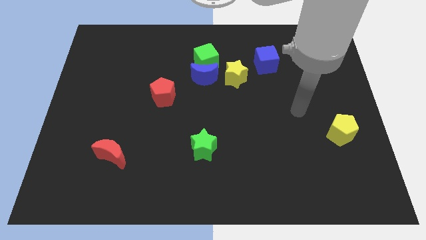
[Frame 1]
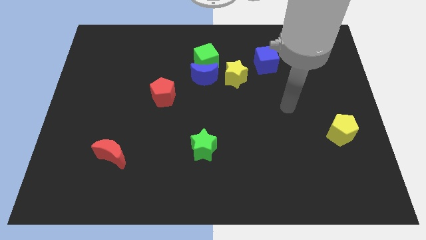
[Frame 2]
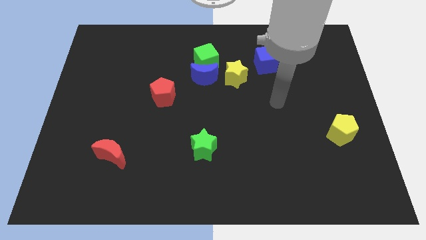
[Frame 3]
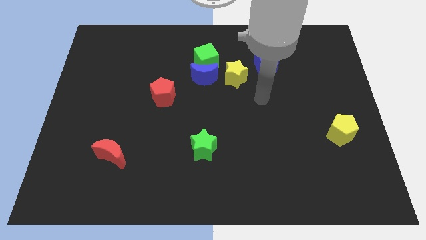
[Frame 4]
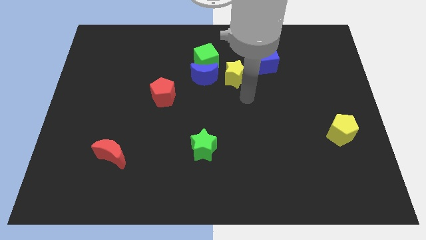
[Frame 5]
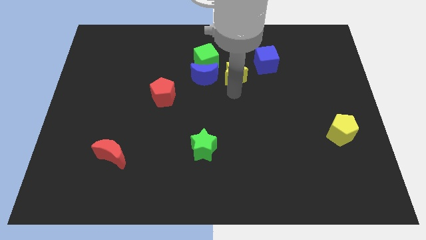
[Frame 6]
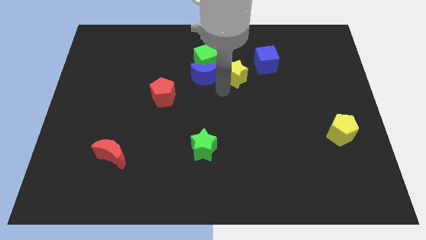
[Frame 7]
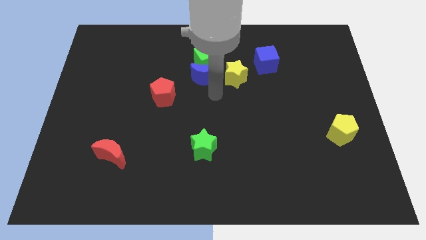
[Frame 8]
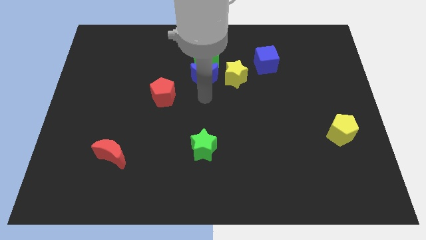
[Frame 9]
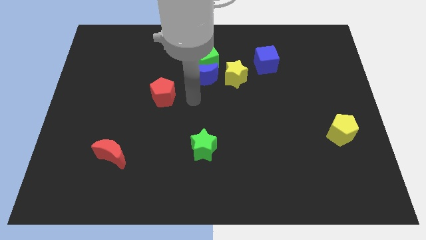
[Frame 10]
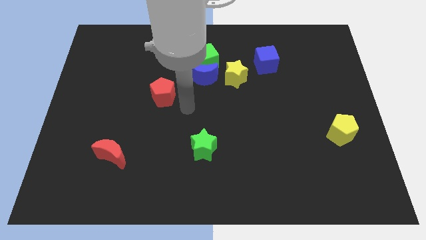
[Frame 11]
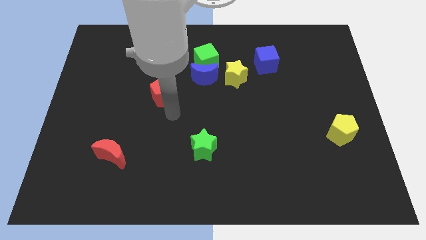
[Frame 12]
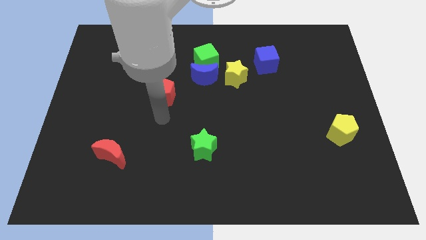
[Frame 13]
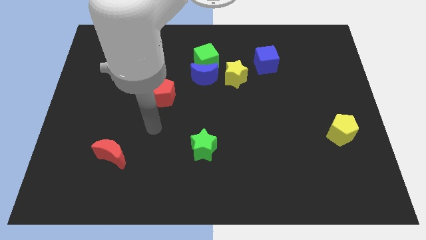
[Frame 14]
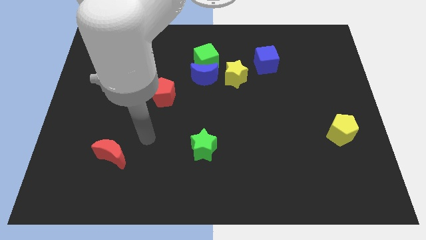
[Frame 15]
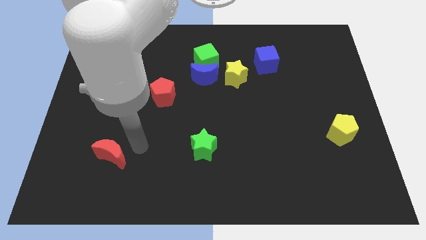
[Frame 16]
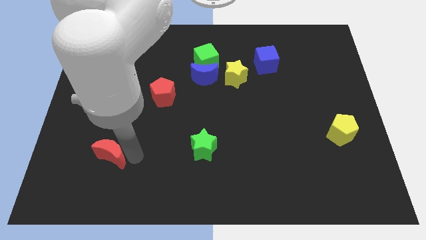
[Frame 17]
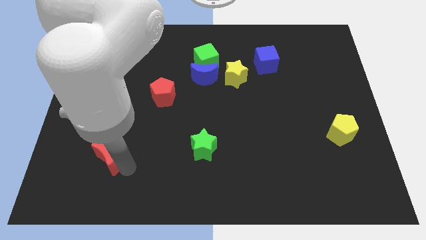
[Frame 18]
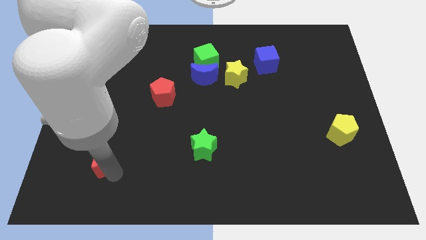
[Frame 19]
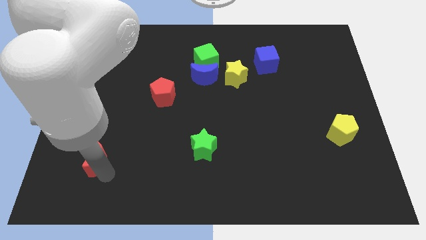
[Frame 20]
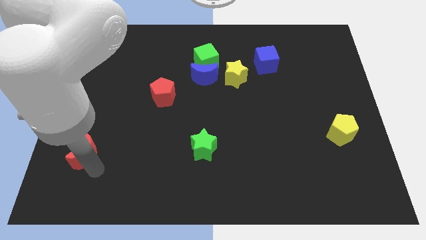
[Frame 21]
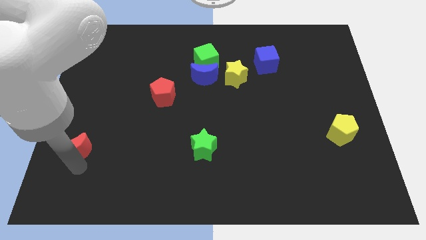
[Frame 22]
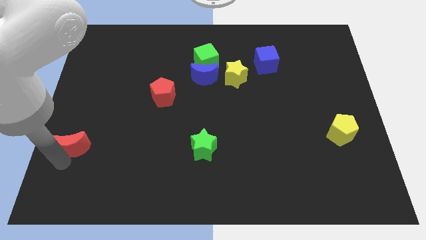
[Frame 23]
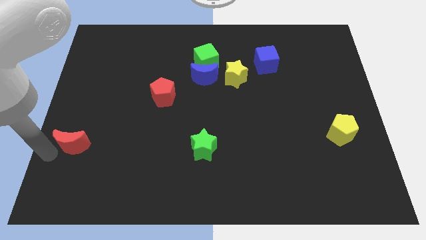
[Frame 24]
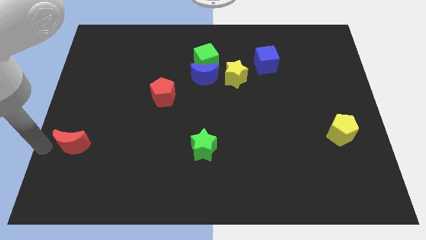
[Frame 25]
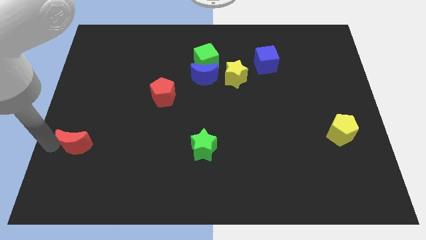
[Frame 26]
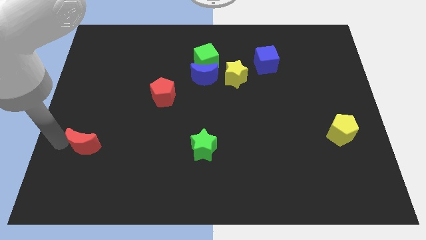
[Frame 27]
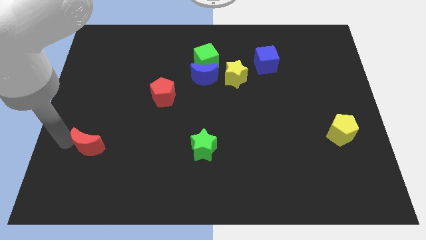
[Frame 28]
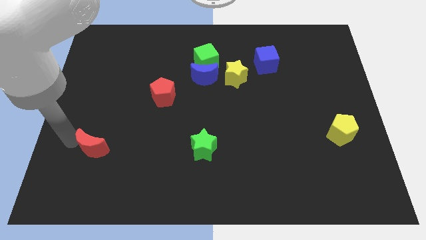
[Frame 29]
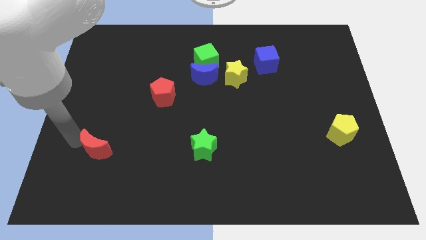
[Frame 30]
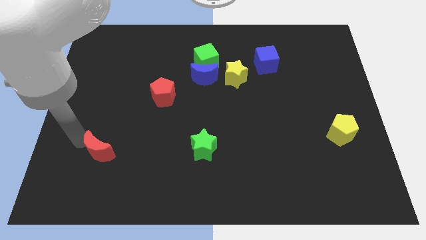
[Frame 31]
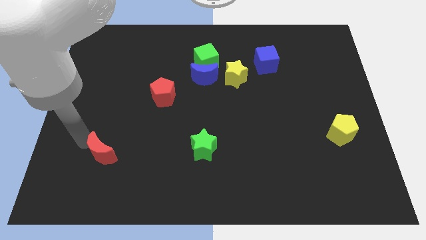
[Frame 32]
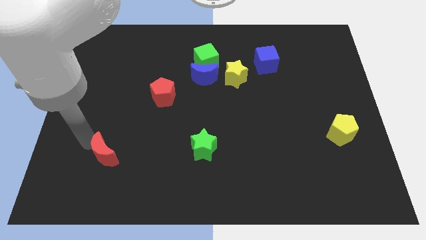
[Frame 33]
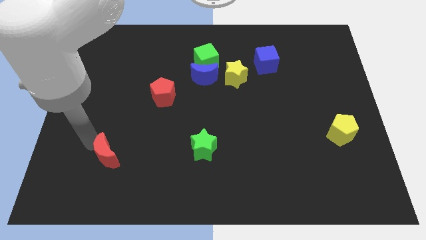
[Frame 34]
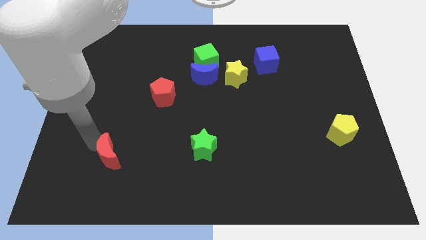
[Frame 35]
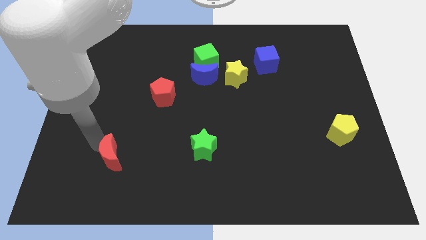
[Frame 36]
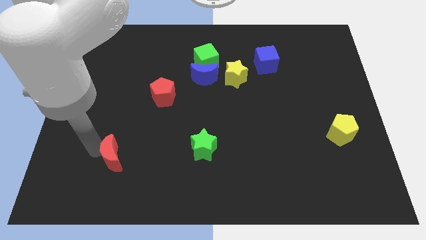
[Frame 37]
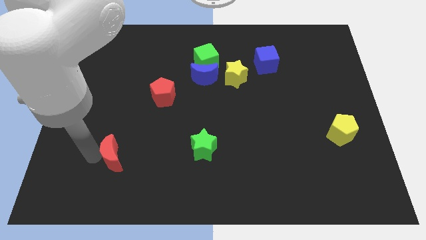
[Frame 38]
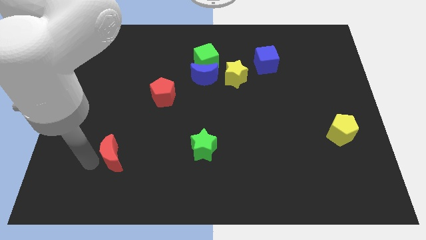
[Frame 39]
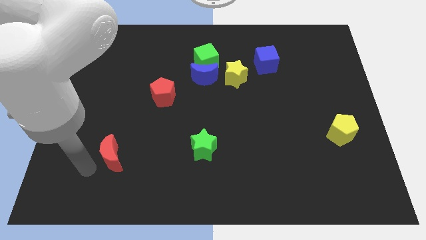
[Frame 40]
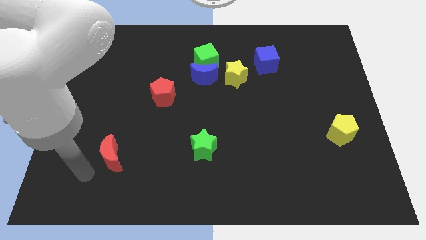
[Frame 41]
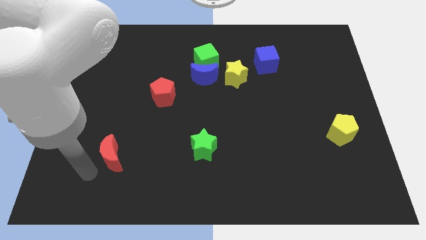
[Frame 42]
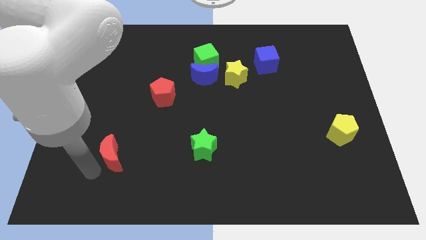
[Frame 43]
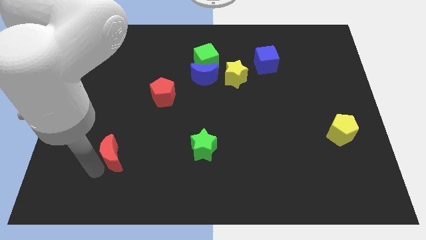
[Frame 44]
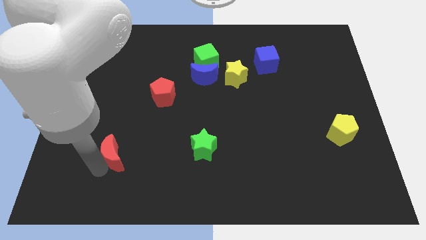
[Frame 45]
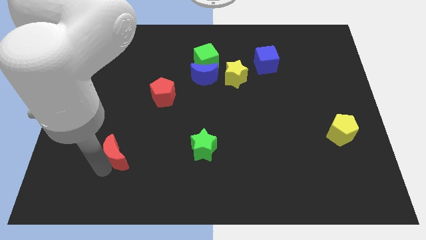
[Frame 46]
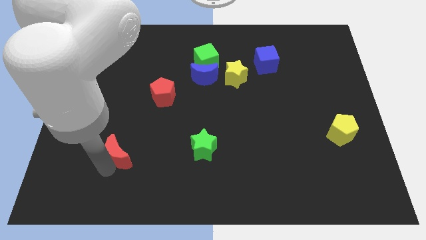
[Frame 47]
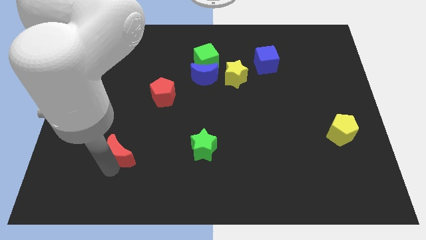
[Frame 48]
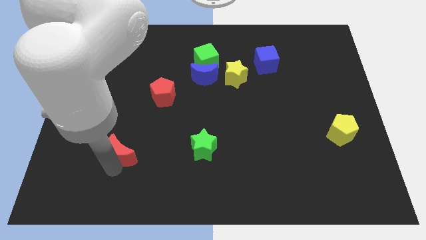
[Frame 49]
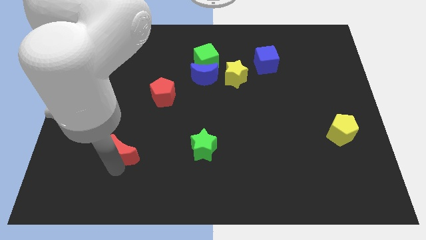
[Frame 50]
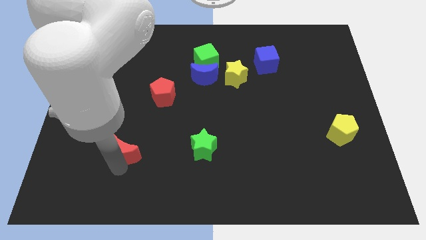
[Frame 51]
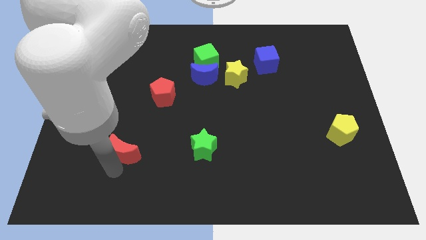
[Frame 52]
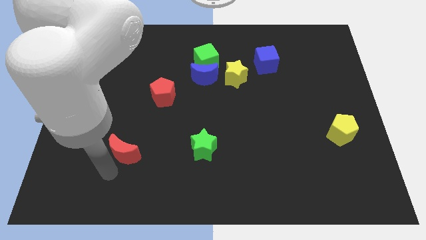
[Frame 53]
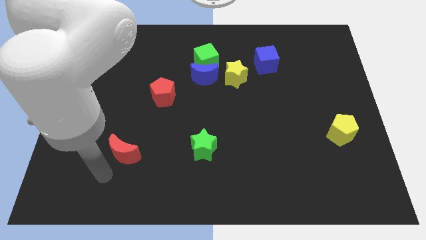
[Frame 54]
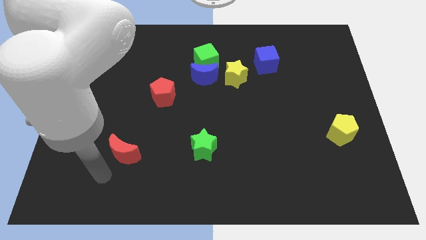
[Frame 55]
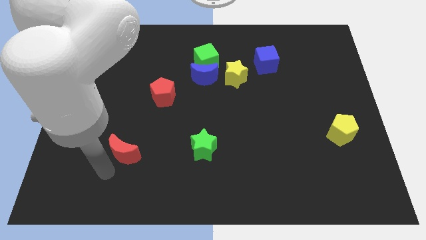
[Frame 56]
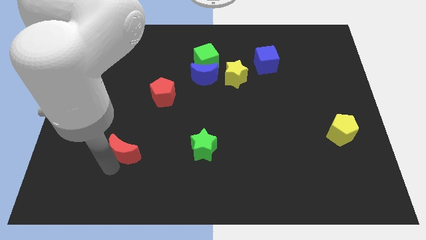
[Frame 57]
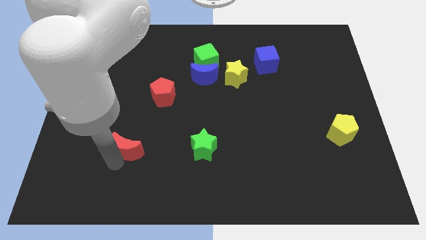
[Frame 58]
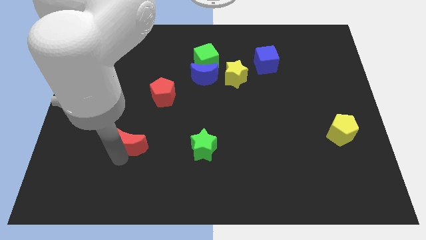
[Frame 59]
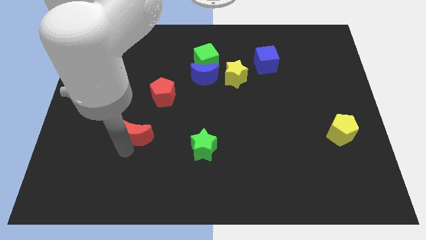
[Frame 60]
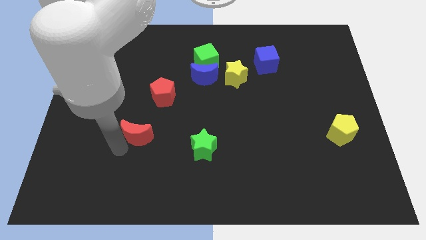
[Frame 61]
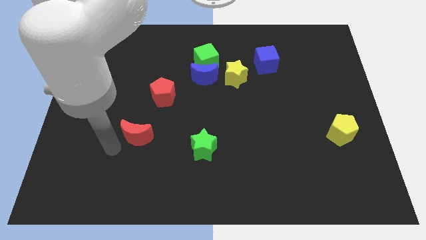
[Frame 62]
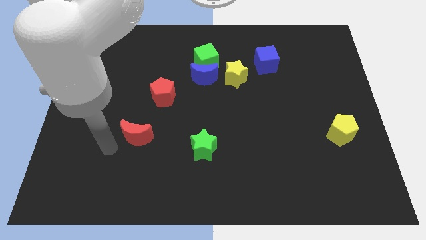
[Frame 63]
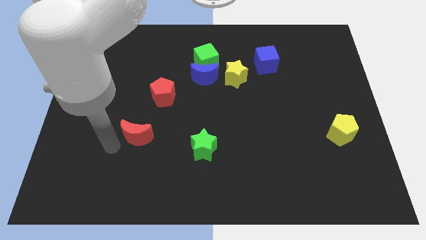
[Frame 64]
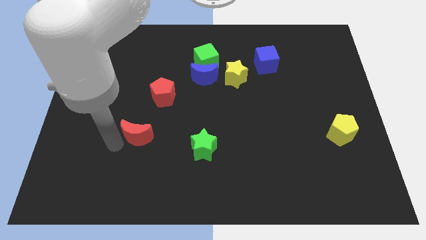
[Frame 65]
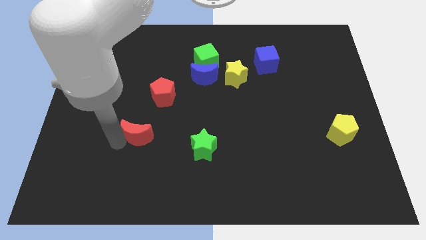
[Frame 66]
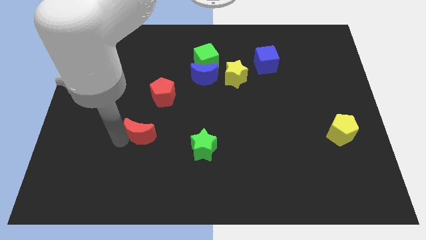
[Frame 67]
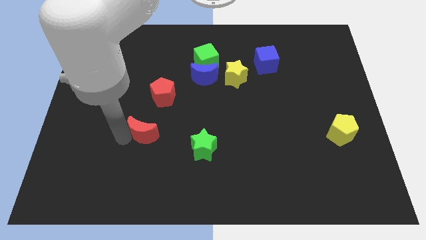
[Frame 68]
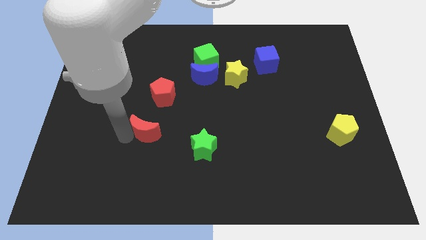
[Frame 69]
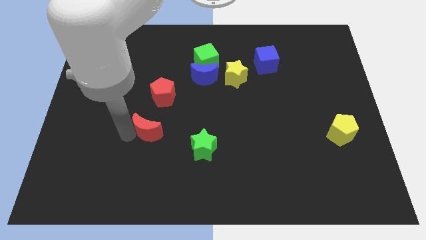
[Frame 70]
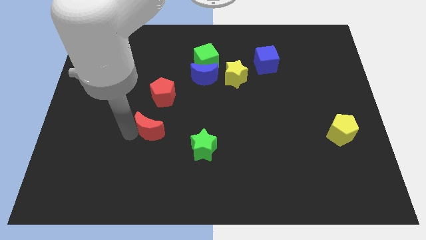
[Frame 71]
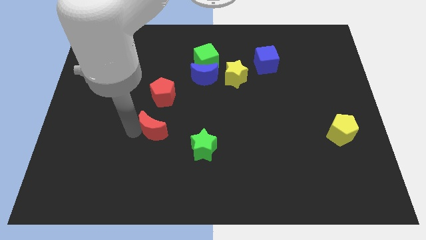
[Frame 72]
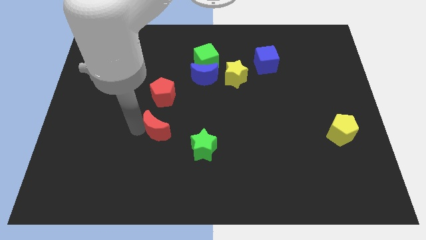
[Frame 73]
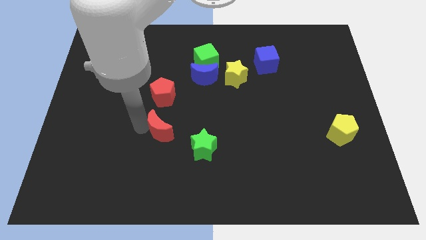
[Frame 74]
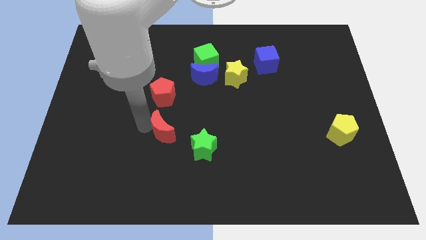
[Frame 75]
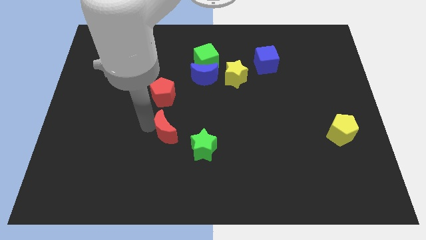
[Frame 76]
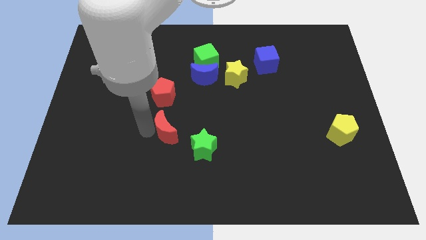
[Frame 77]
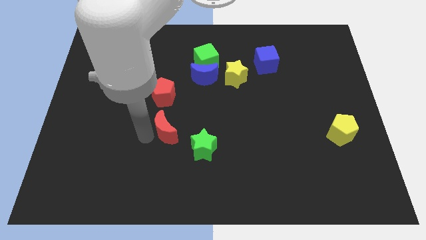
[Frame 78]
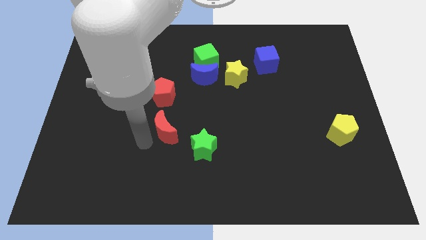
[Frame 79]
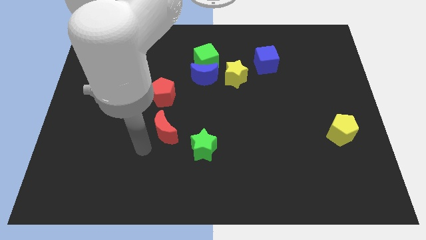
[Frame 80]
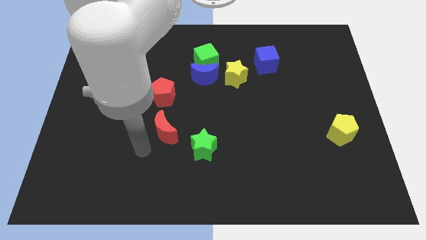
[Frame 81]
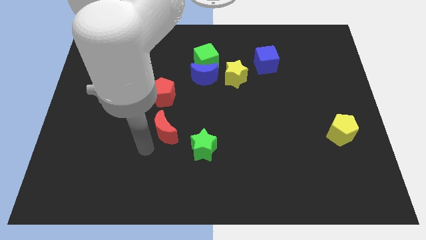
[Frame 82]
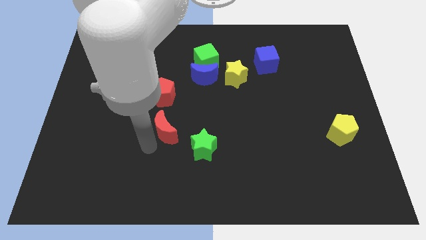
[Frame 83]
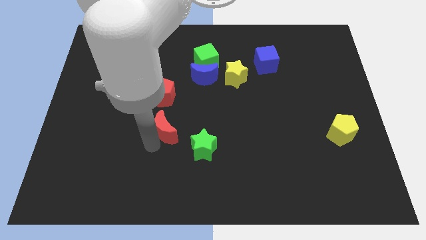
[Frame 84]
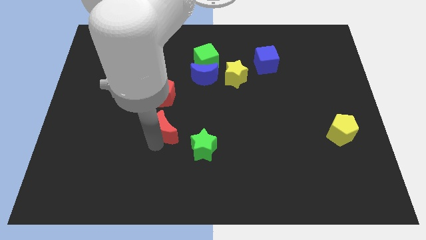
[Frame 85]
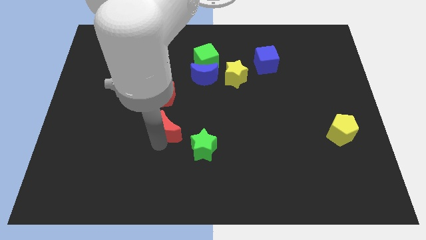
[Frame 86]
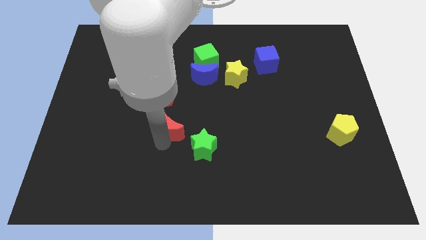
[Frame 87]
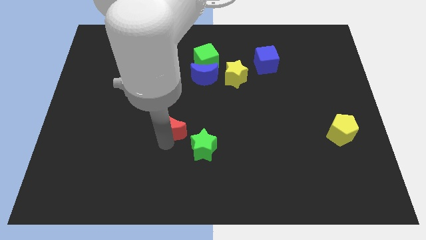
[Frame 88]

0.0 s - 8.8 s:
put the red moon to the center of the board
